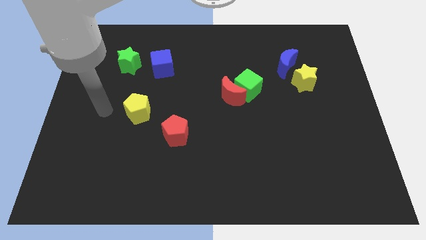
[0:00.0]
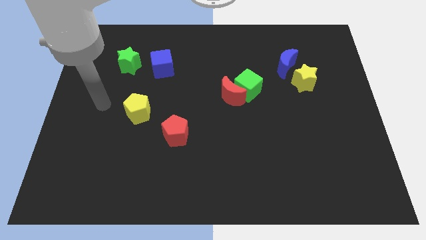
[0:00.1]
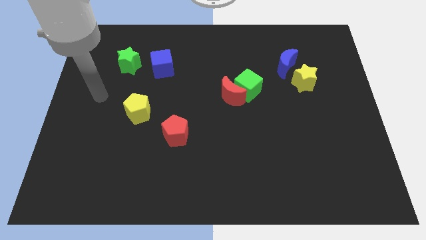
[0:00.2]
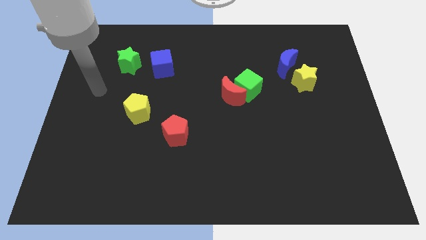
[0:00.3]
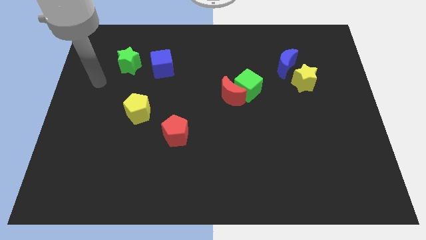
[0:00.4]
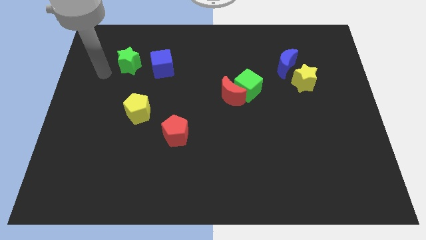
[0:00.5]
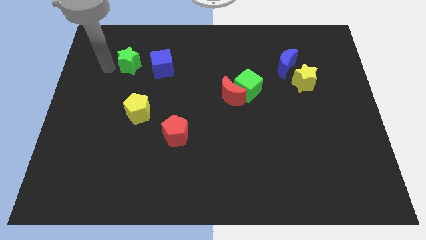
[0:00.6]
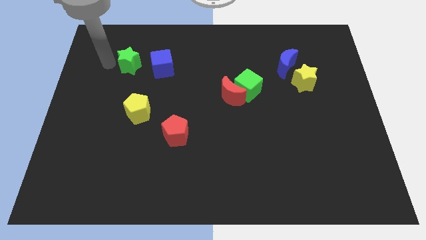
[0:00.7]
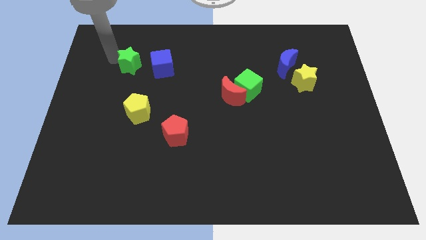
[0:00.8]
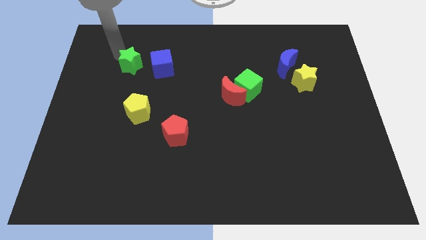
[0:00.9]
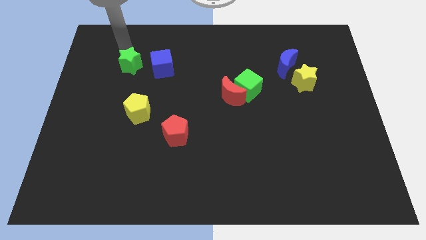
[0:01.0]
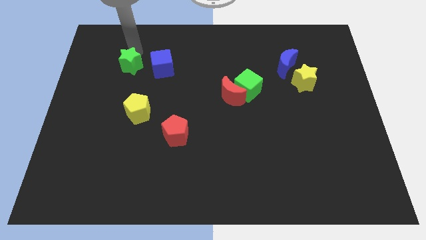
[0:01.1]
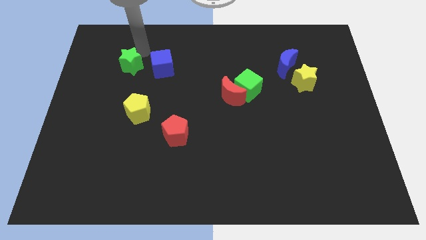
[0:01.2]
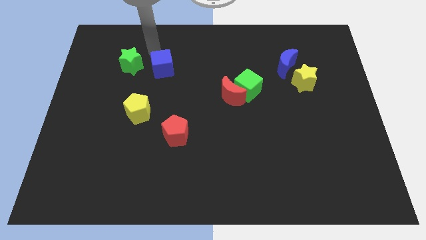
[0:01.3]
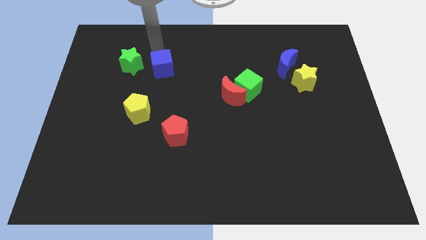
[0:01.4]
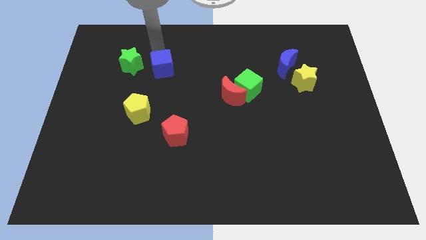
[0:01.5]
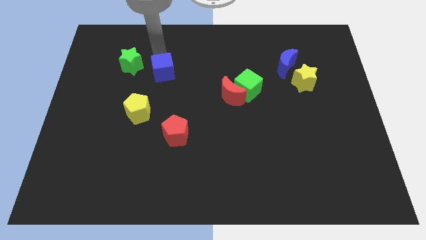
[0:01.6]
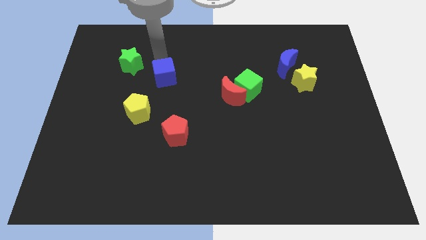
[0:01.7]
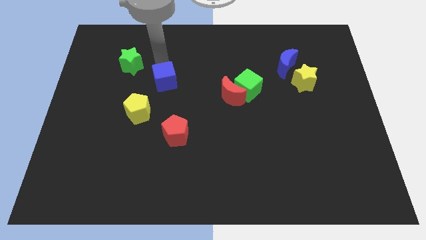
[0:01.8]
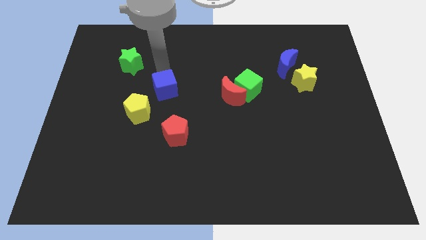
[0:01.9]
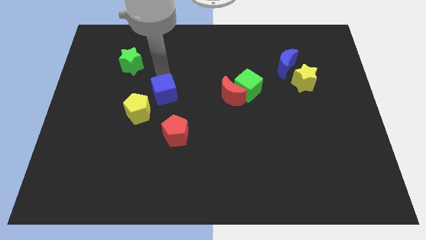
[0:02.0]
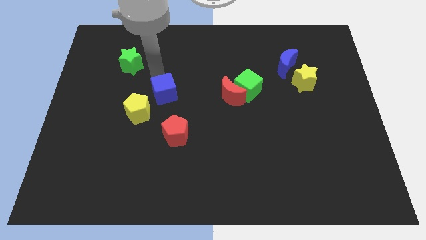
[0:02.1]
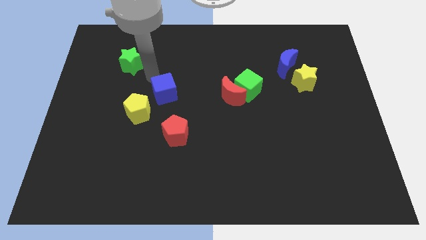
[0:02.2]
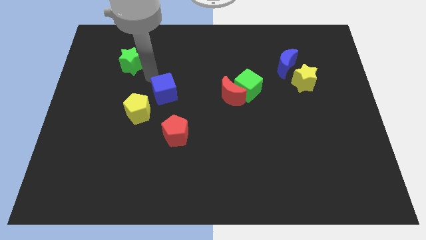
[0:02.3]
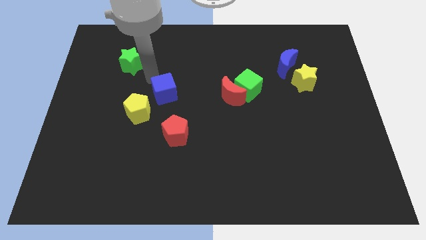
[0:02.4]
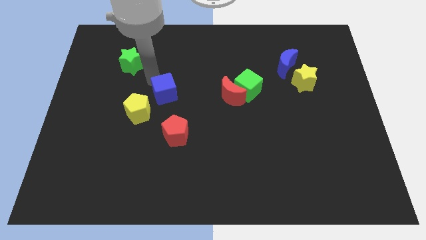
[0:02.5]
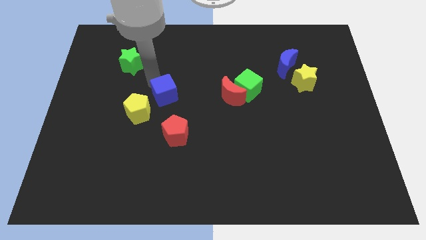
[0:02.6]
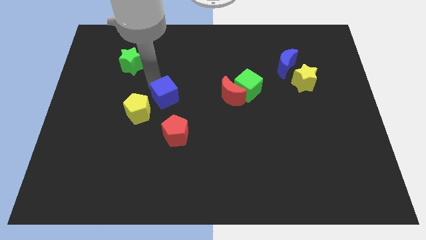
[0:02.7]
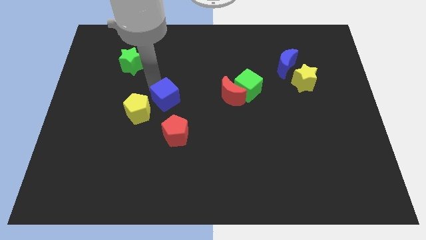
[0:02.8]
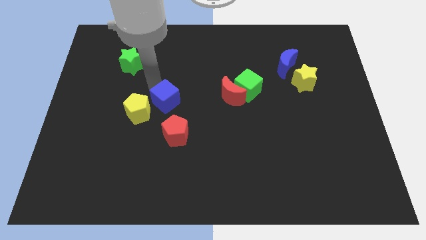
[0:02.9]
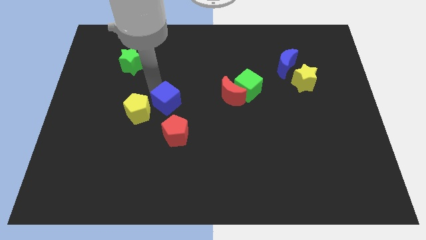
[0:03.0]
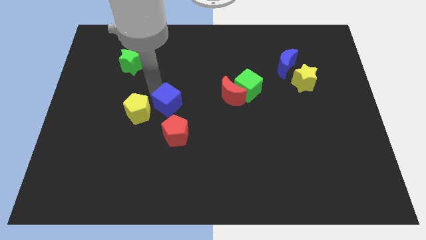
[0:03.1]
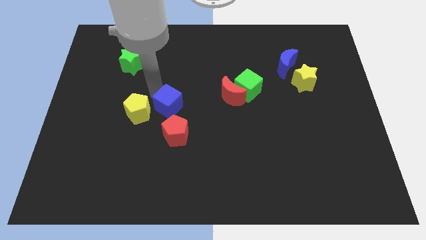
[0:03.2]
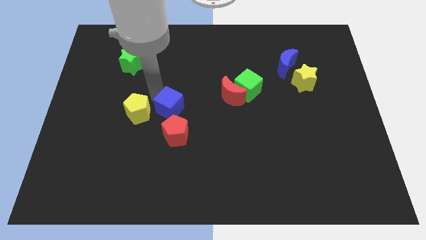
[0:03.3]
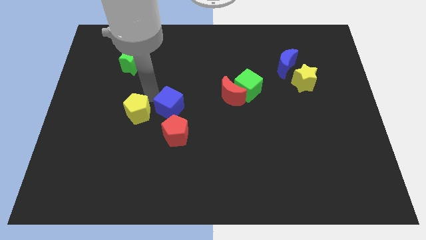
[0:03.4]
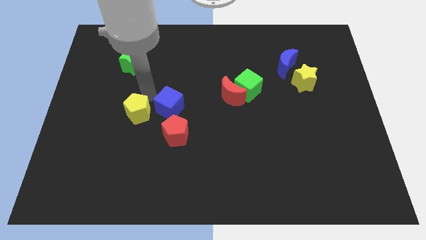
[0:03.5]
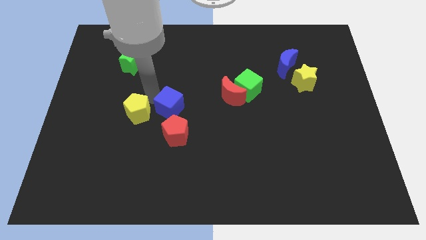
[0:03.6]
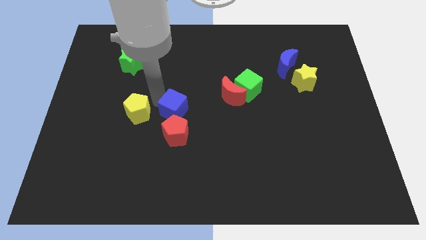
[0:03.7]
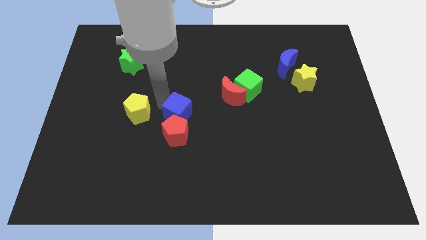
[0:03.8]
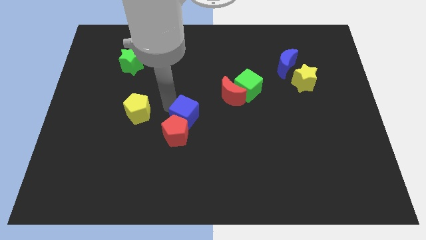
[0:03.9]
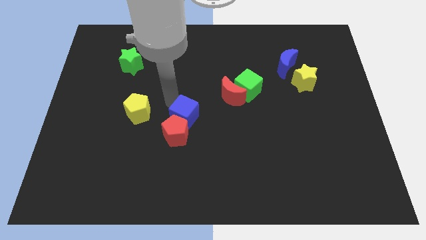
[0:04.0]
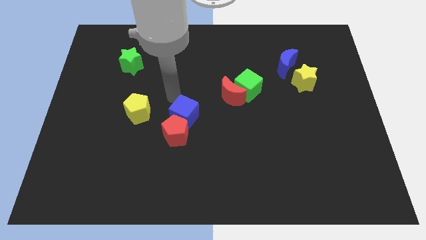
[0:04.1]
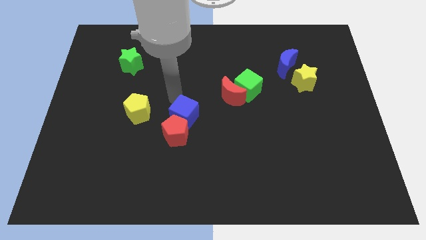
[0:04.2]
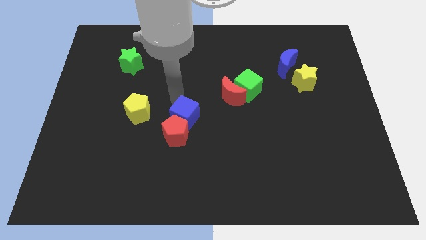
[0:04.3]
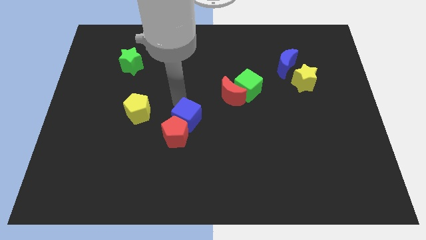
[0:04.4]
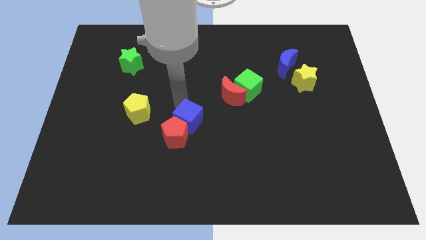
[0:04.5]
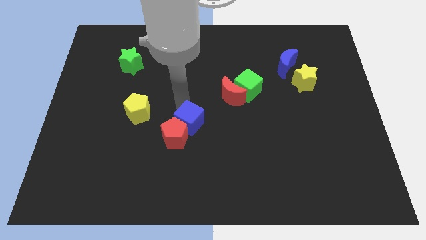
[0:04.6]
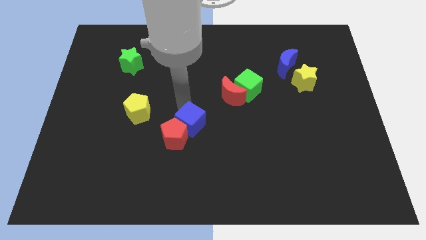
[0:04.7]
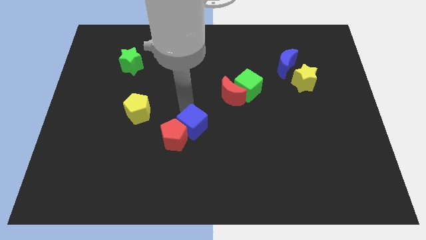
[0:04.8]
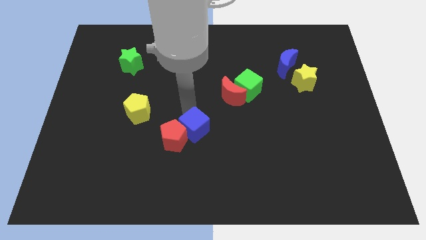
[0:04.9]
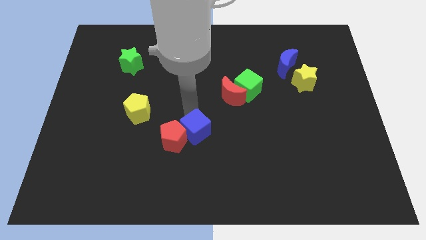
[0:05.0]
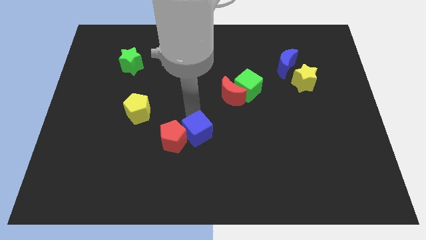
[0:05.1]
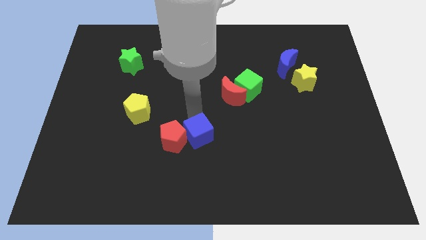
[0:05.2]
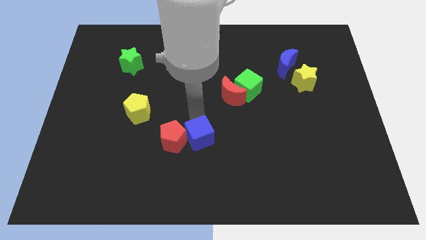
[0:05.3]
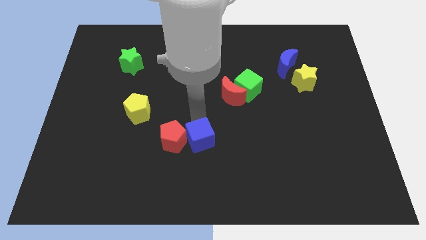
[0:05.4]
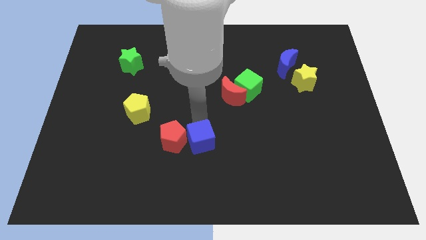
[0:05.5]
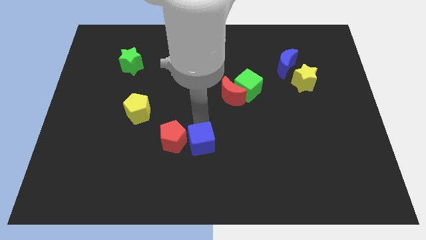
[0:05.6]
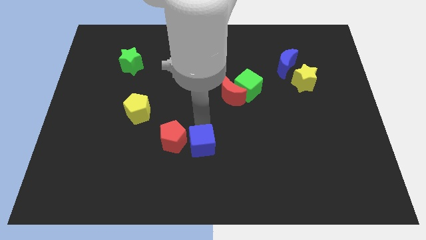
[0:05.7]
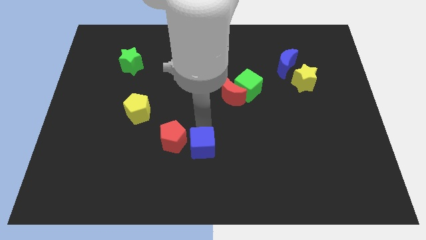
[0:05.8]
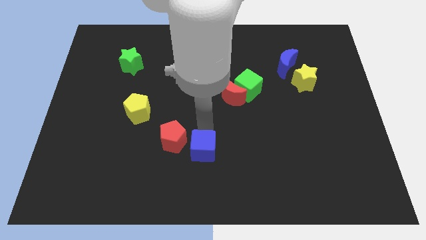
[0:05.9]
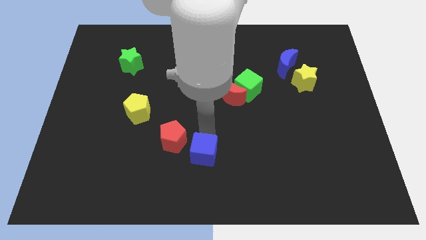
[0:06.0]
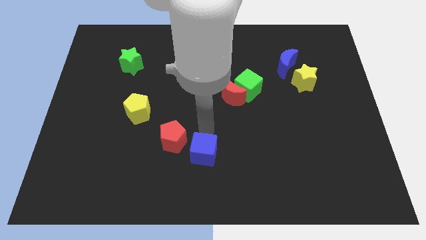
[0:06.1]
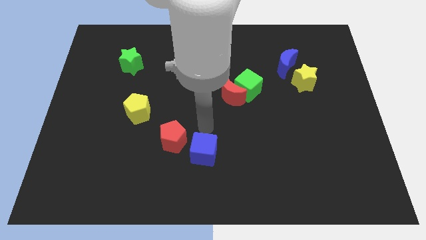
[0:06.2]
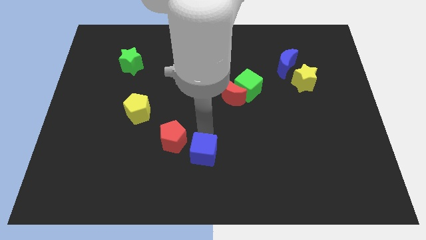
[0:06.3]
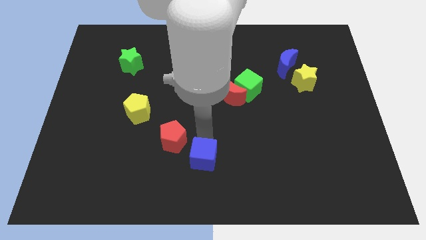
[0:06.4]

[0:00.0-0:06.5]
push the blue cube to the bottom side

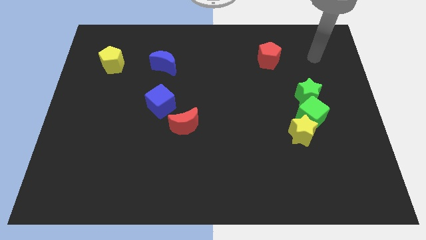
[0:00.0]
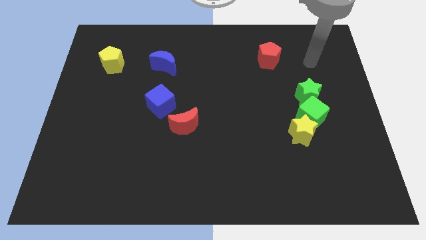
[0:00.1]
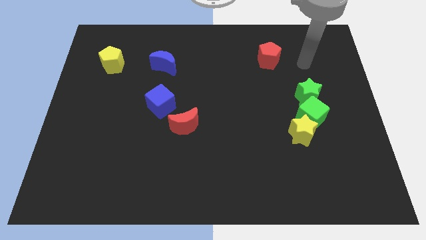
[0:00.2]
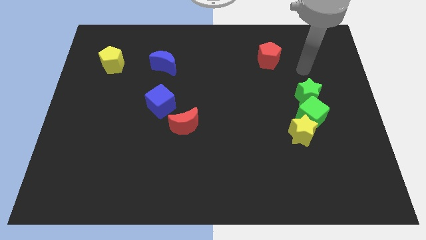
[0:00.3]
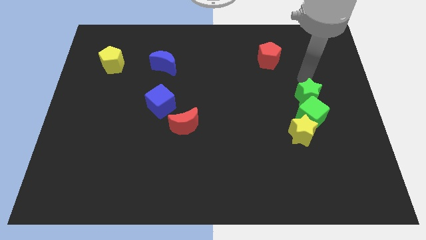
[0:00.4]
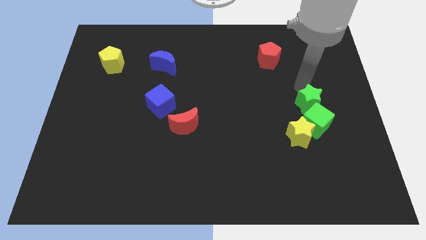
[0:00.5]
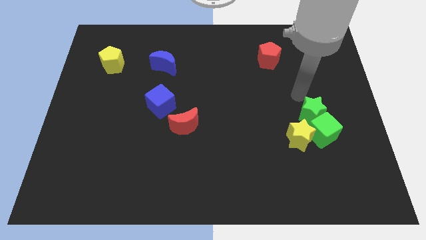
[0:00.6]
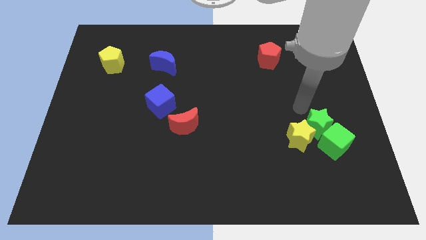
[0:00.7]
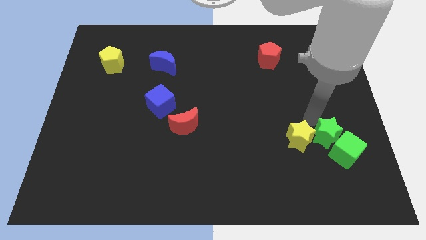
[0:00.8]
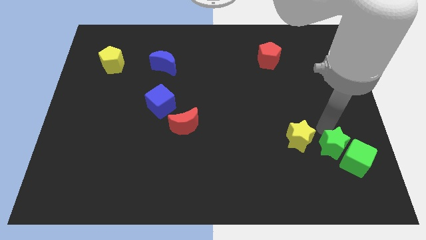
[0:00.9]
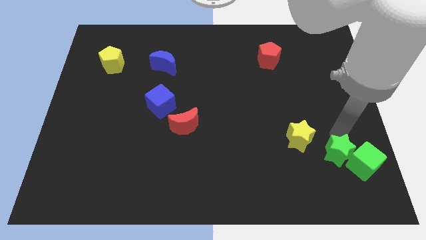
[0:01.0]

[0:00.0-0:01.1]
slide the green cube to the bottom right
